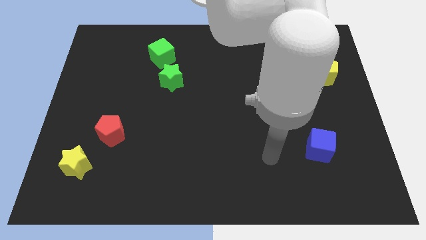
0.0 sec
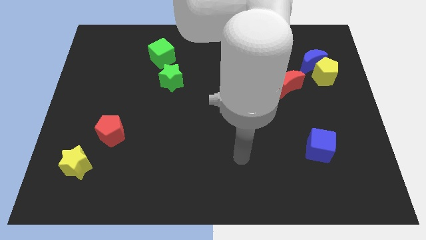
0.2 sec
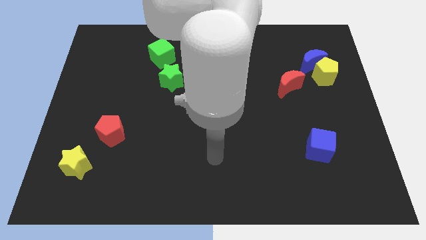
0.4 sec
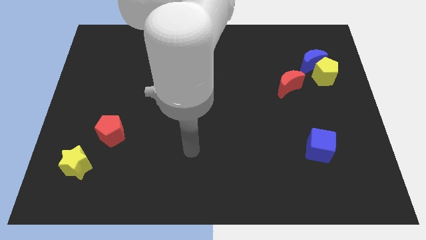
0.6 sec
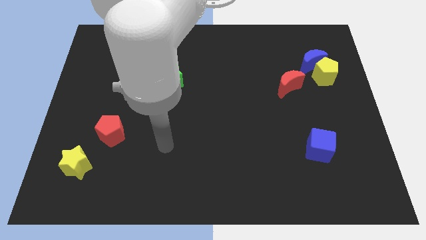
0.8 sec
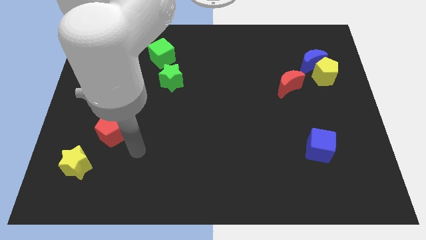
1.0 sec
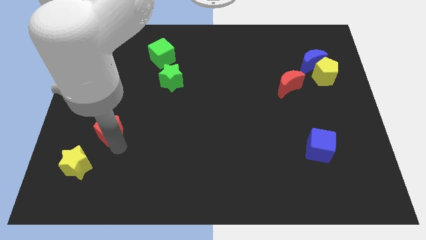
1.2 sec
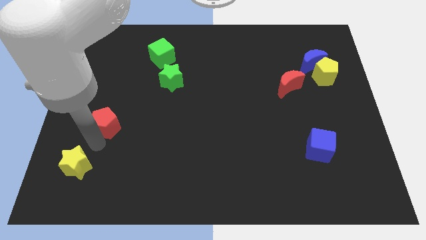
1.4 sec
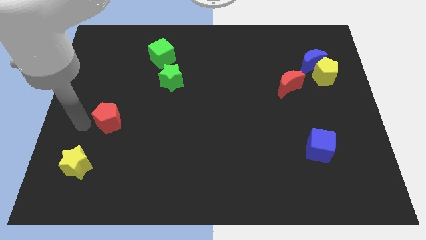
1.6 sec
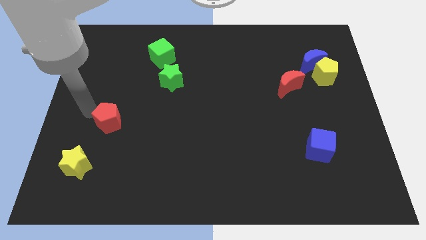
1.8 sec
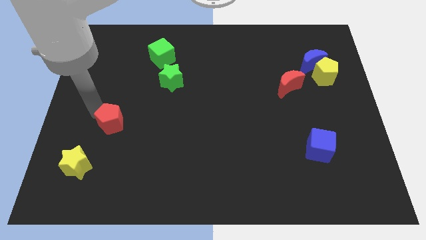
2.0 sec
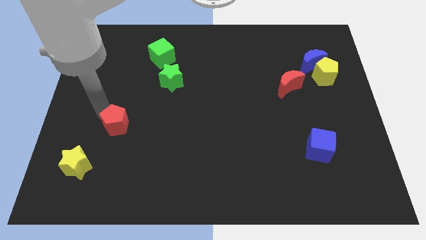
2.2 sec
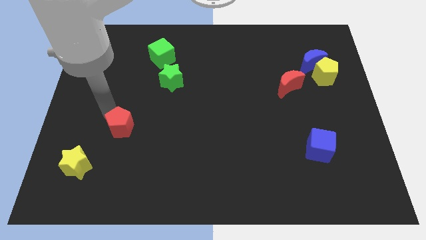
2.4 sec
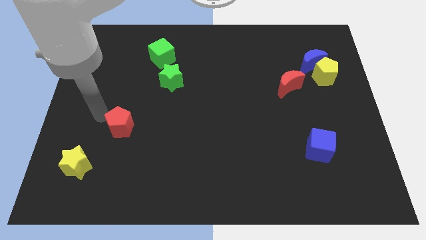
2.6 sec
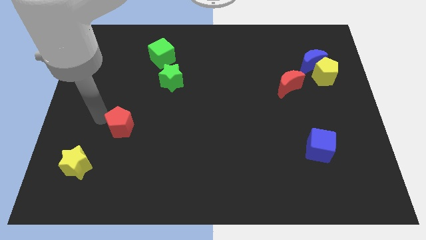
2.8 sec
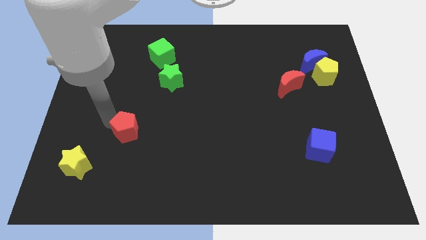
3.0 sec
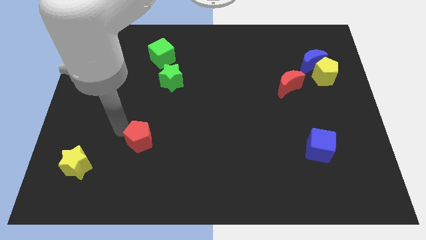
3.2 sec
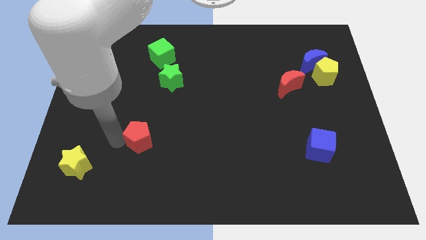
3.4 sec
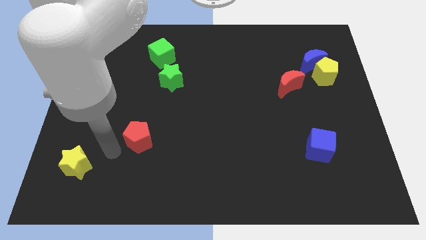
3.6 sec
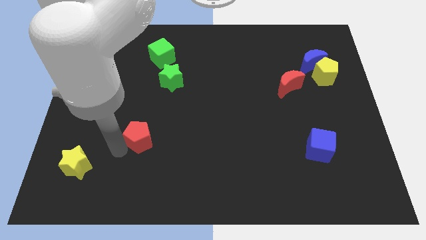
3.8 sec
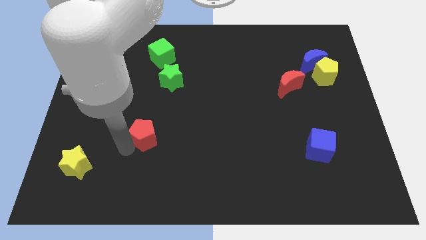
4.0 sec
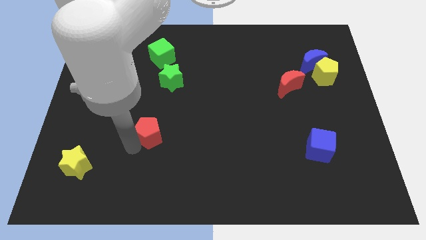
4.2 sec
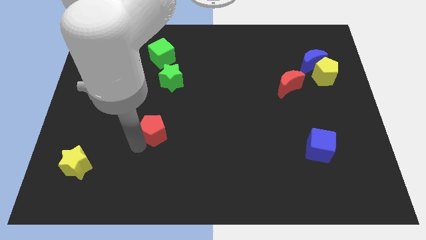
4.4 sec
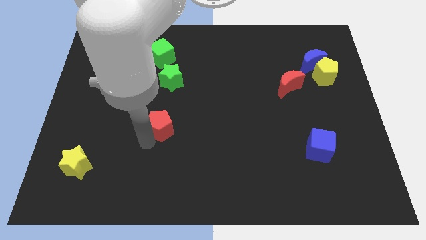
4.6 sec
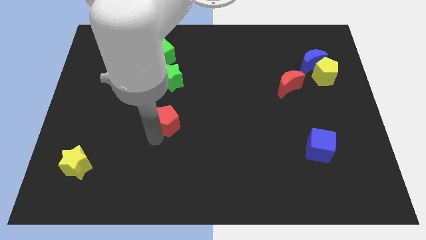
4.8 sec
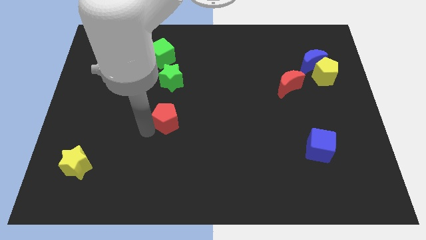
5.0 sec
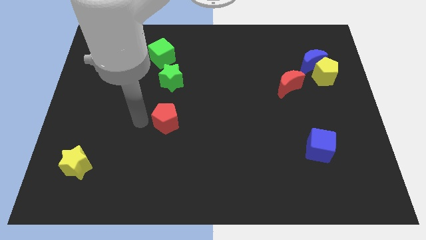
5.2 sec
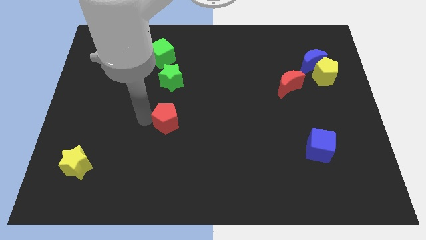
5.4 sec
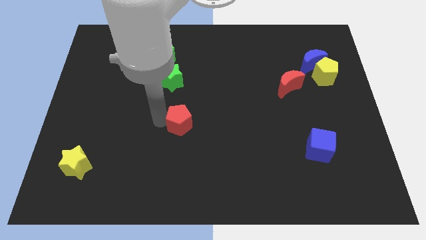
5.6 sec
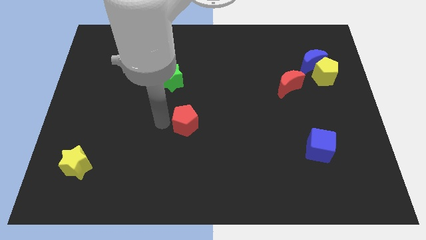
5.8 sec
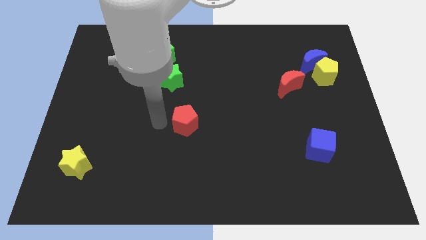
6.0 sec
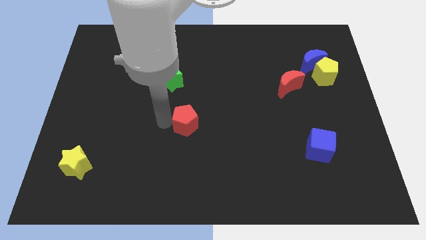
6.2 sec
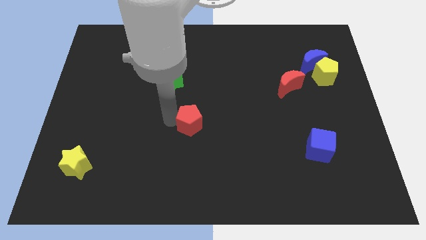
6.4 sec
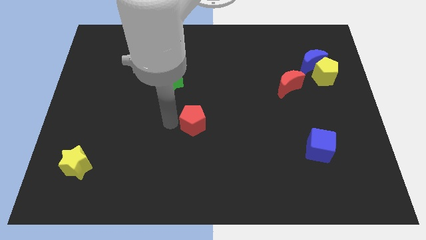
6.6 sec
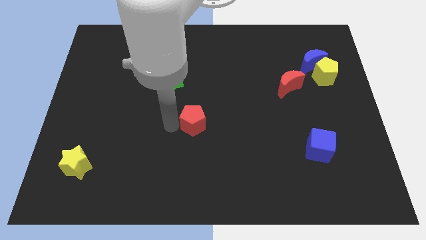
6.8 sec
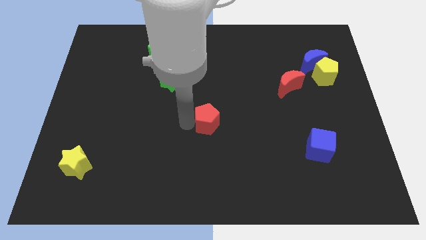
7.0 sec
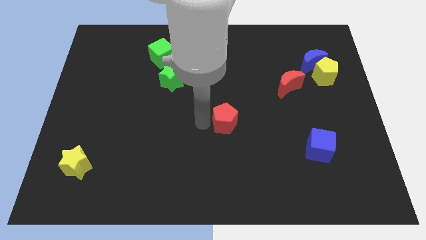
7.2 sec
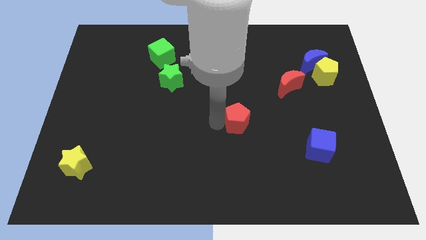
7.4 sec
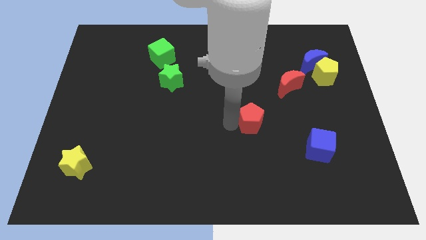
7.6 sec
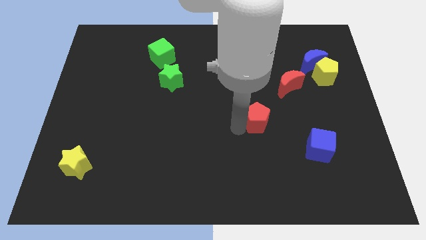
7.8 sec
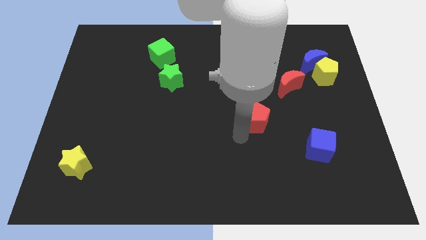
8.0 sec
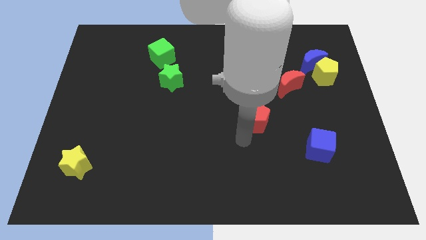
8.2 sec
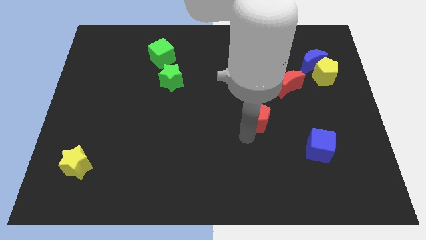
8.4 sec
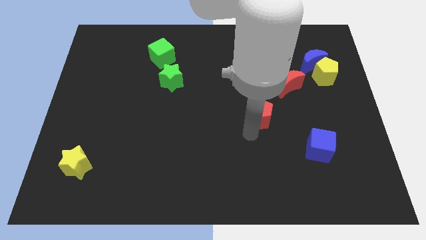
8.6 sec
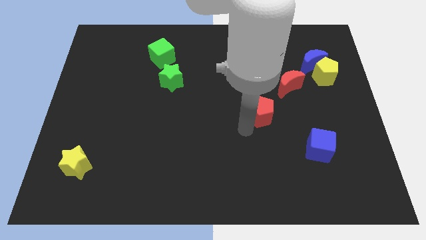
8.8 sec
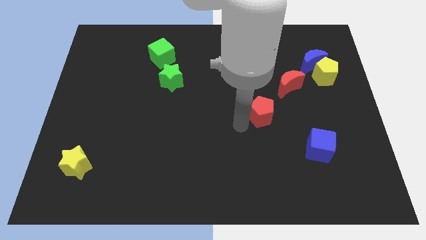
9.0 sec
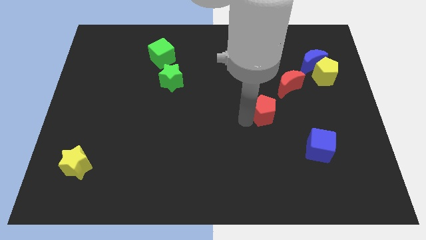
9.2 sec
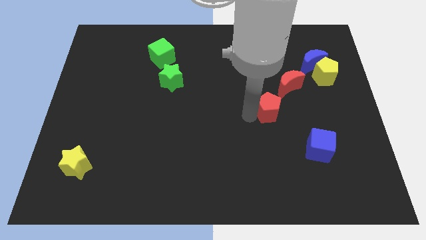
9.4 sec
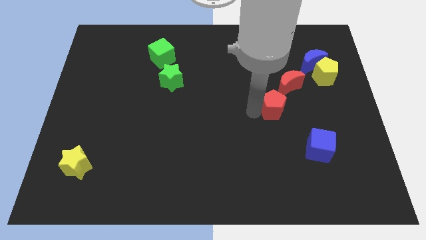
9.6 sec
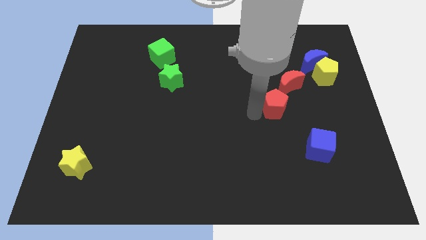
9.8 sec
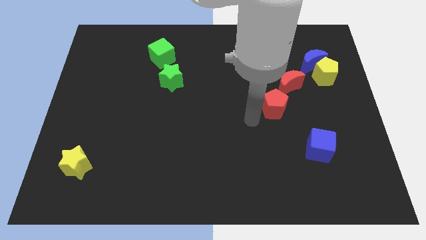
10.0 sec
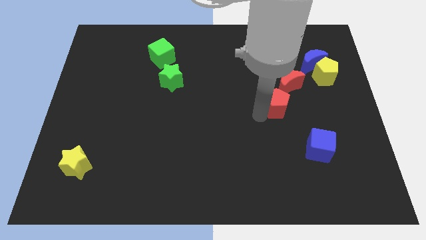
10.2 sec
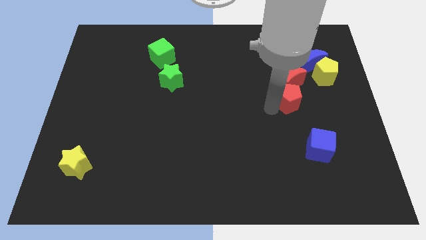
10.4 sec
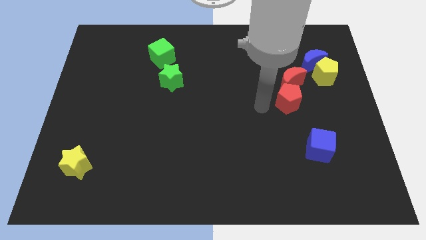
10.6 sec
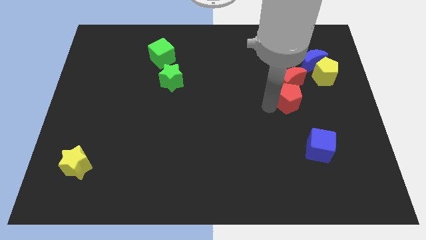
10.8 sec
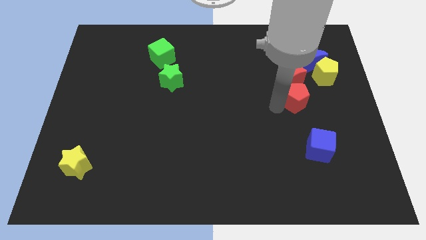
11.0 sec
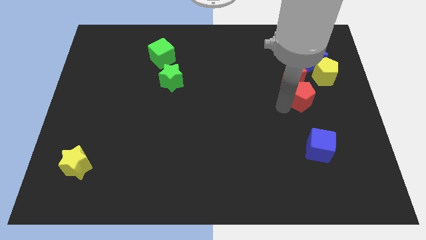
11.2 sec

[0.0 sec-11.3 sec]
push the red pentagon below the blue moon

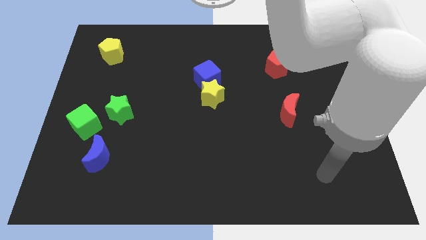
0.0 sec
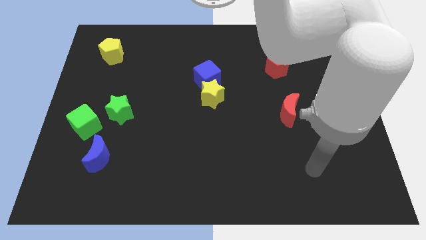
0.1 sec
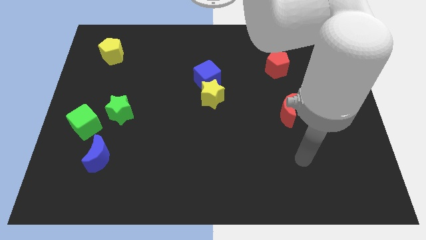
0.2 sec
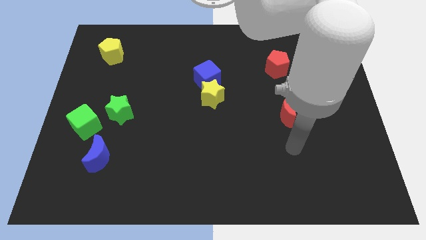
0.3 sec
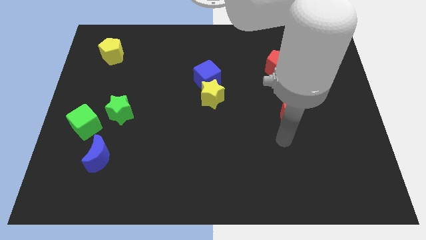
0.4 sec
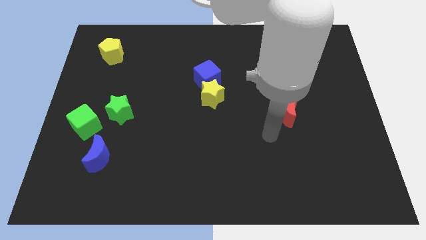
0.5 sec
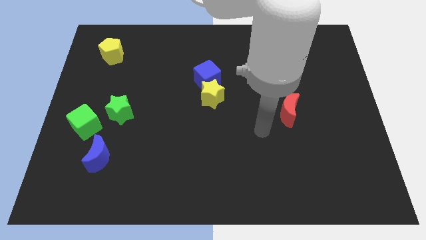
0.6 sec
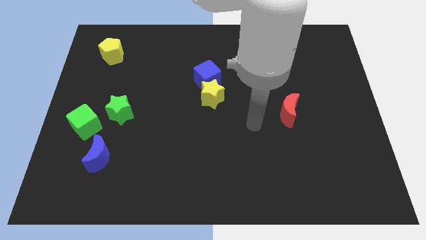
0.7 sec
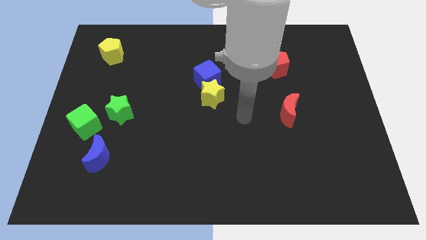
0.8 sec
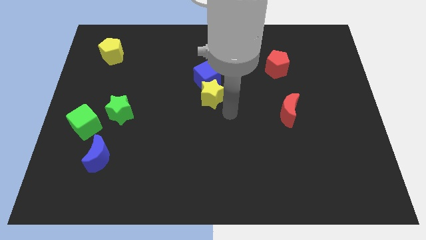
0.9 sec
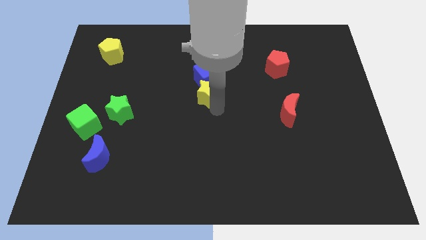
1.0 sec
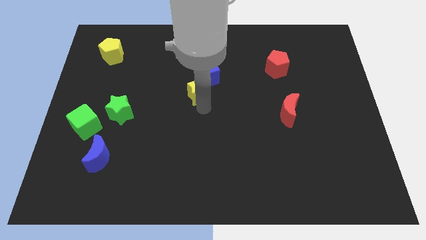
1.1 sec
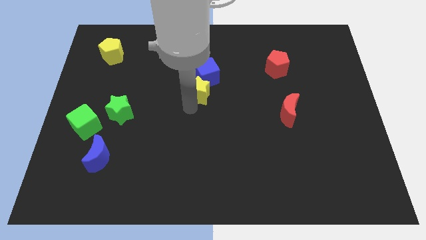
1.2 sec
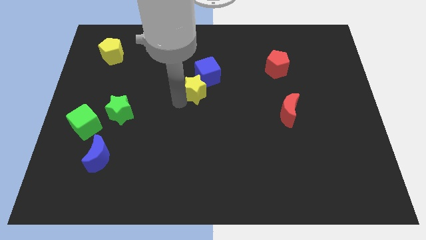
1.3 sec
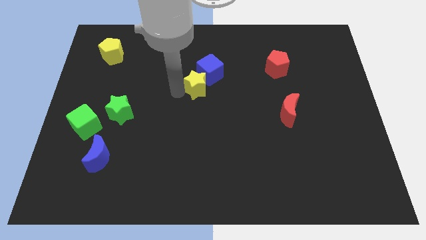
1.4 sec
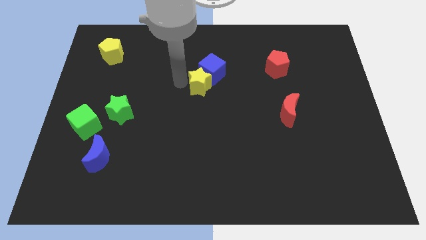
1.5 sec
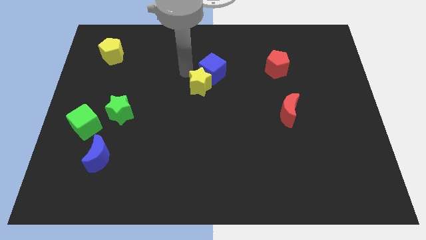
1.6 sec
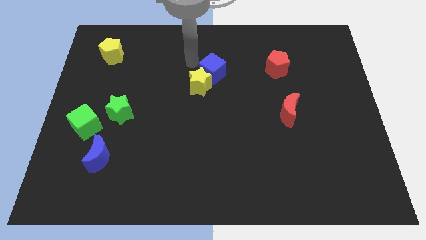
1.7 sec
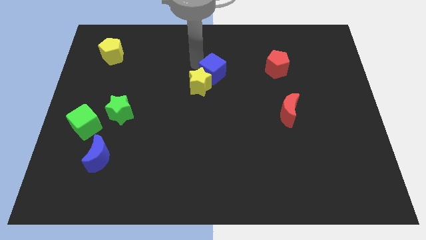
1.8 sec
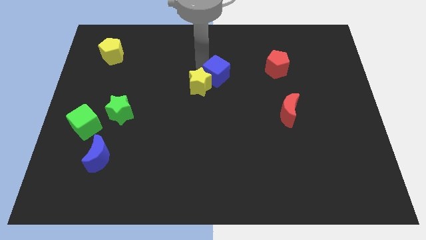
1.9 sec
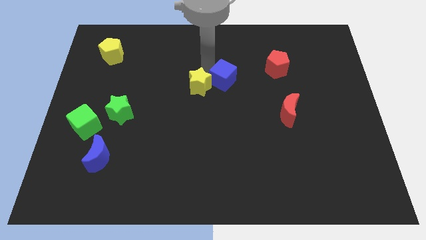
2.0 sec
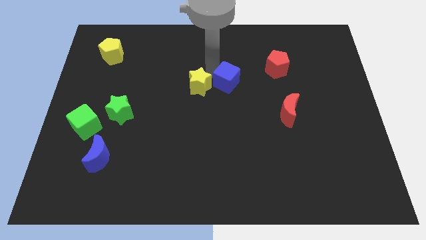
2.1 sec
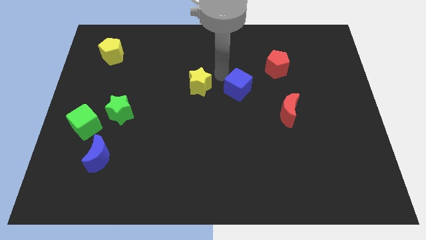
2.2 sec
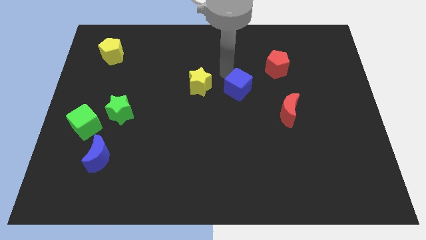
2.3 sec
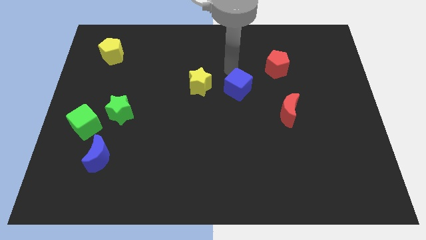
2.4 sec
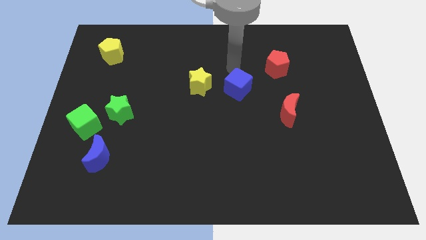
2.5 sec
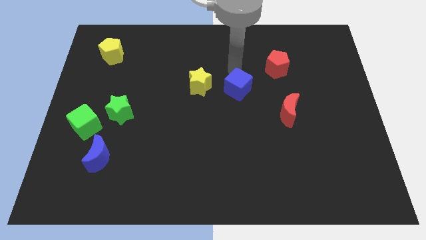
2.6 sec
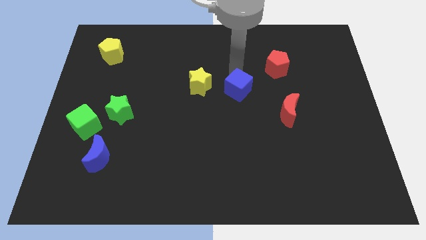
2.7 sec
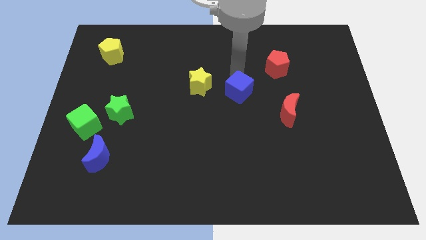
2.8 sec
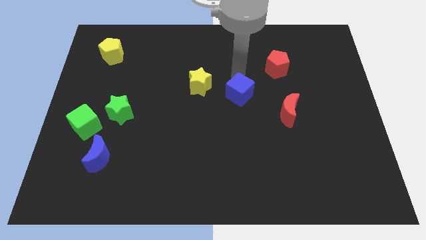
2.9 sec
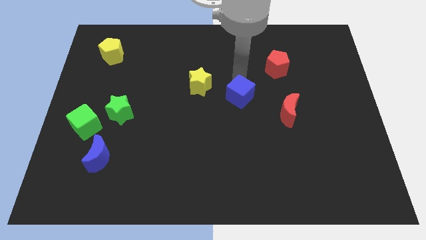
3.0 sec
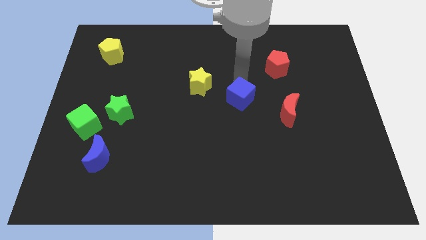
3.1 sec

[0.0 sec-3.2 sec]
move the blue cube left of the red moon
